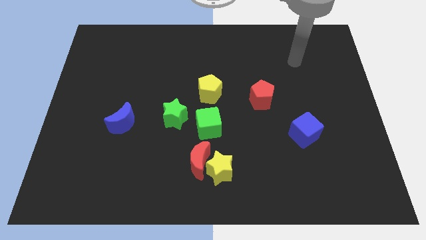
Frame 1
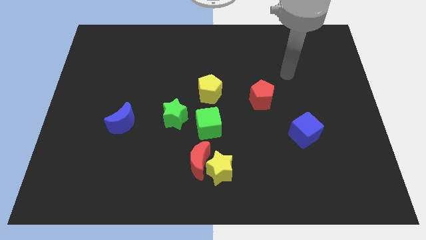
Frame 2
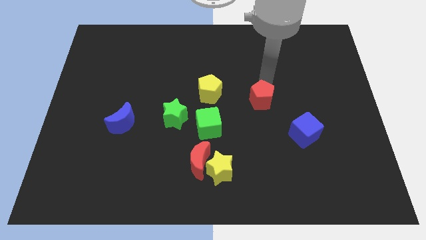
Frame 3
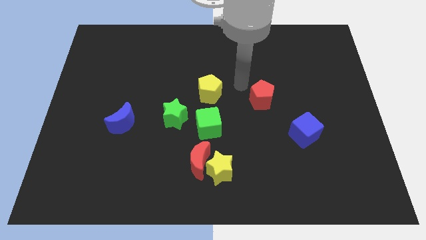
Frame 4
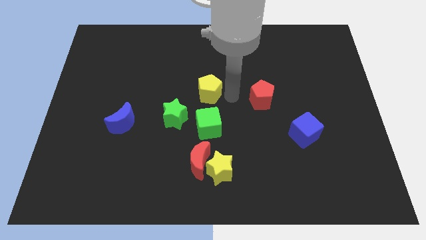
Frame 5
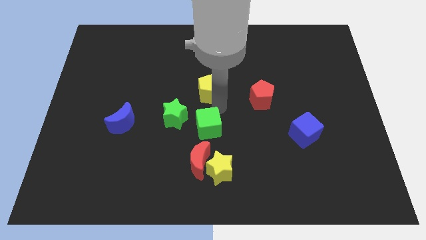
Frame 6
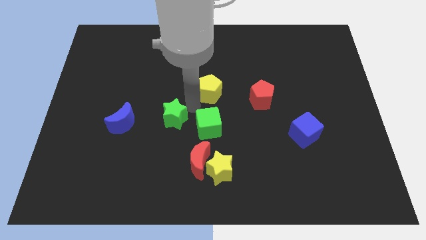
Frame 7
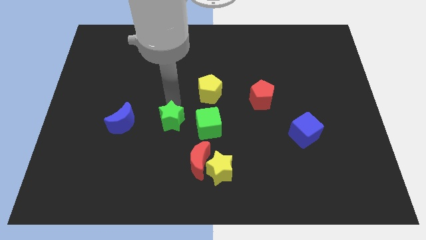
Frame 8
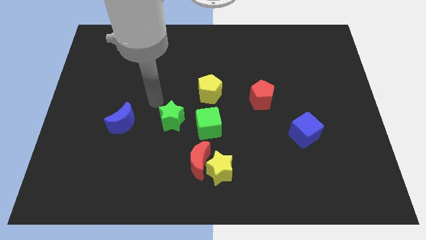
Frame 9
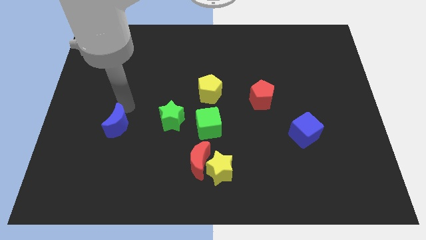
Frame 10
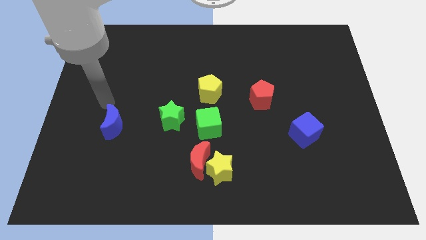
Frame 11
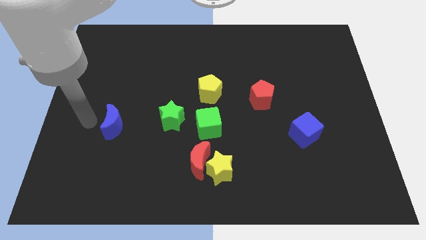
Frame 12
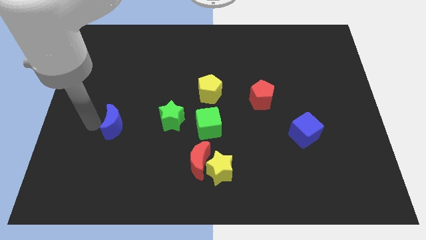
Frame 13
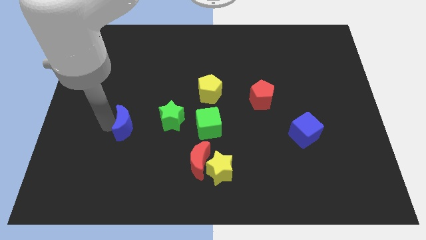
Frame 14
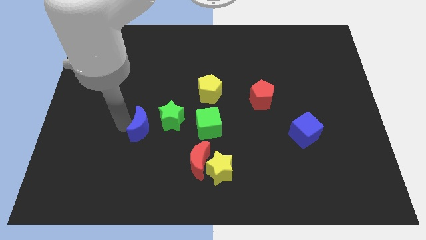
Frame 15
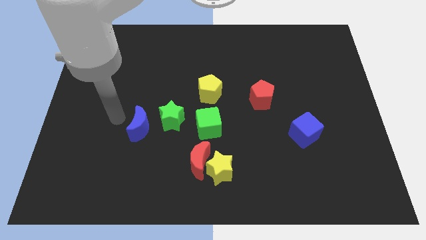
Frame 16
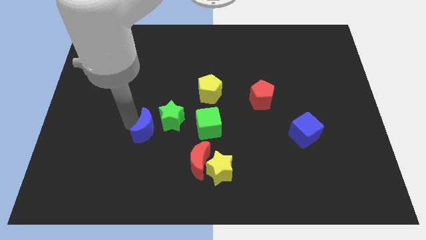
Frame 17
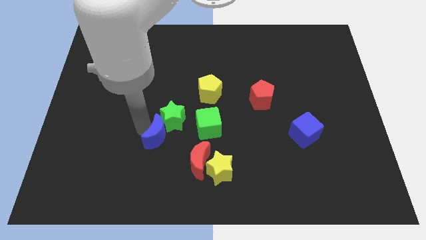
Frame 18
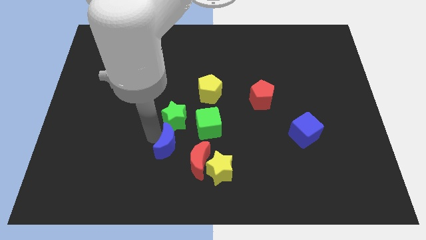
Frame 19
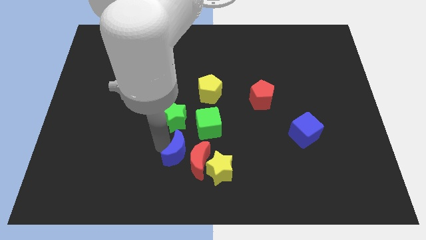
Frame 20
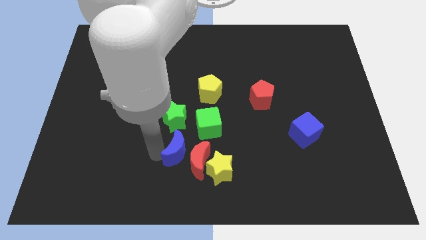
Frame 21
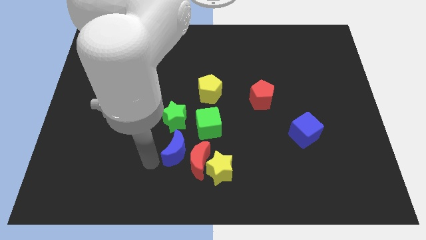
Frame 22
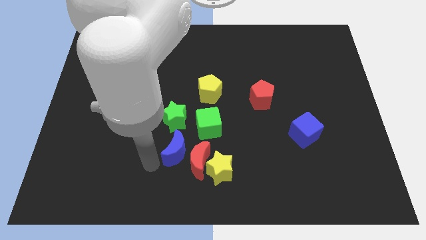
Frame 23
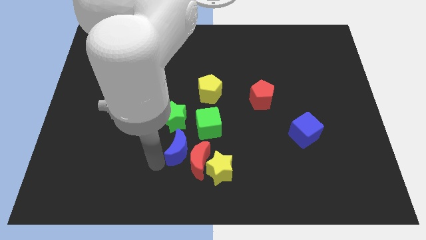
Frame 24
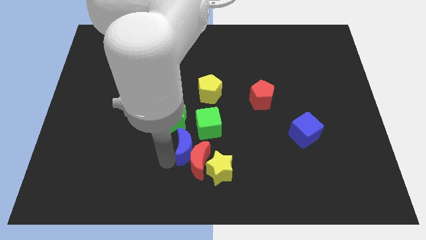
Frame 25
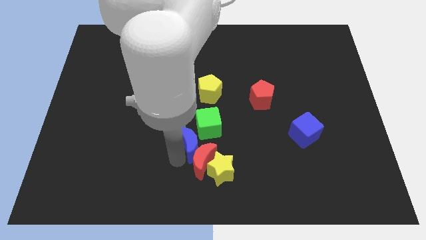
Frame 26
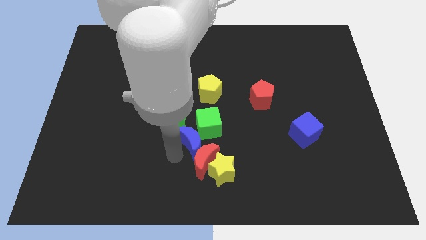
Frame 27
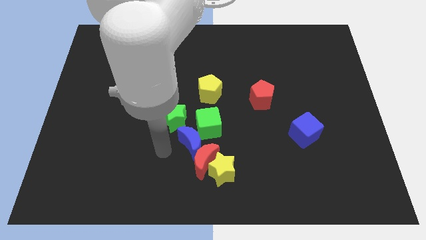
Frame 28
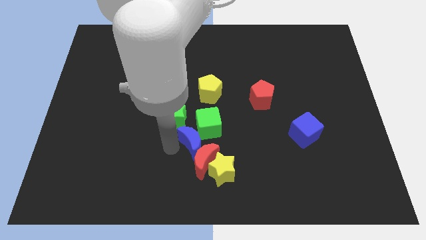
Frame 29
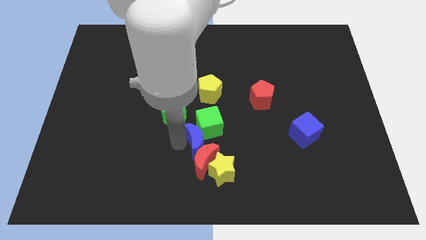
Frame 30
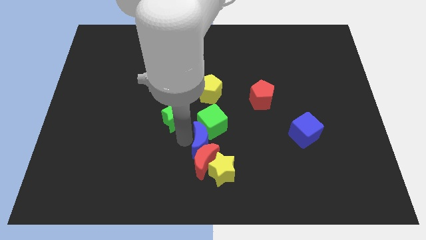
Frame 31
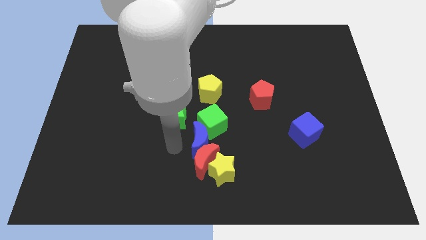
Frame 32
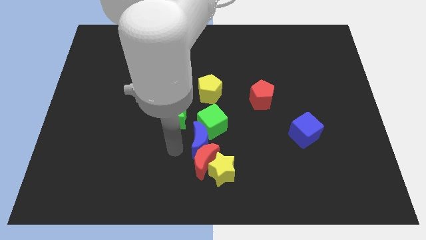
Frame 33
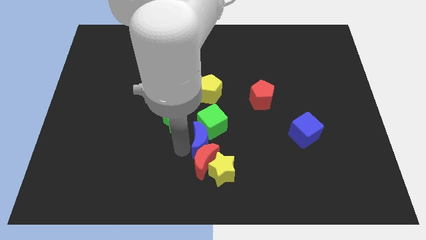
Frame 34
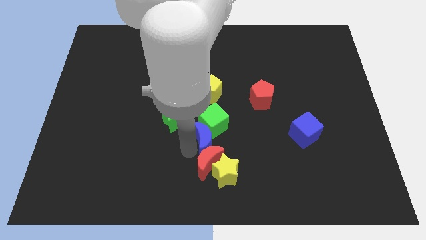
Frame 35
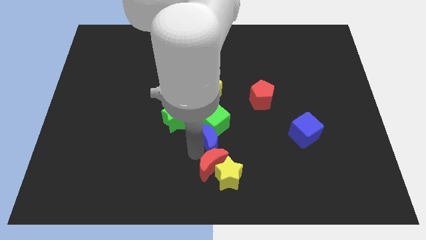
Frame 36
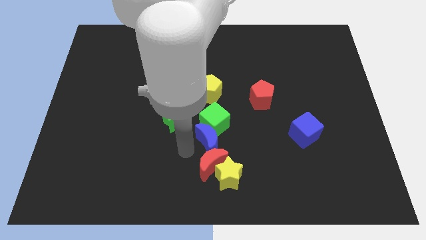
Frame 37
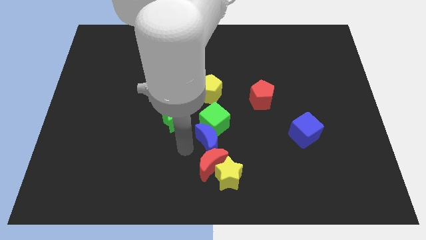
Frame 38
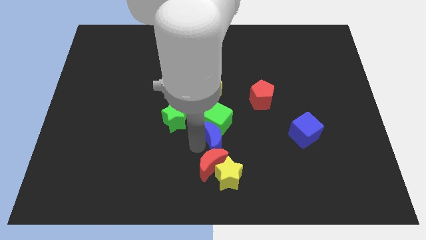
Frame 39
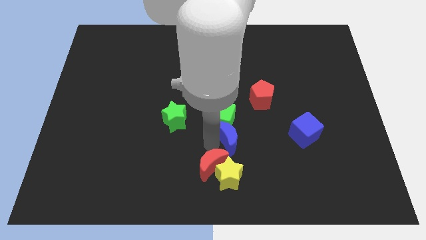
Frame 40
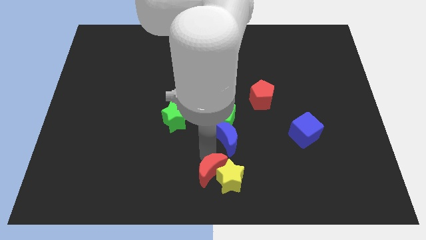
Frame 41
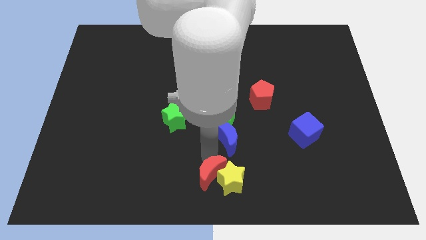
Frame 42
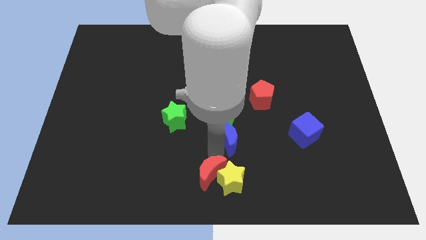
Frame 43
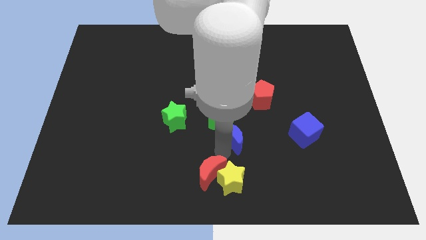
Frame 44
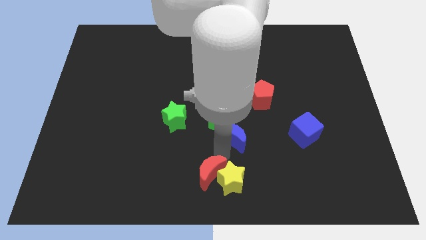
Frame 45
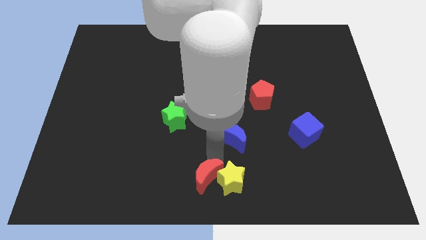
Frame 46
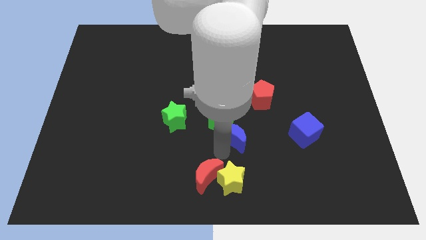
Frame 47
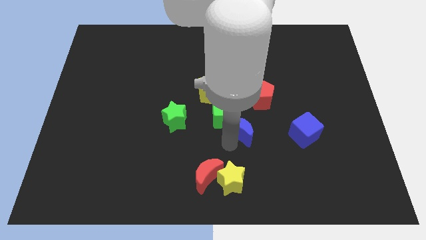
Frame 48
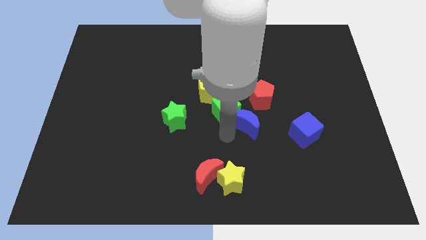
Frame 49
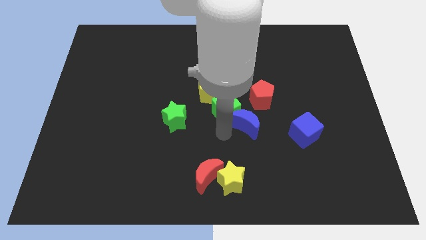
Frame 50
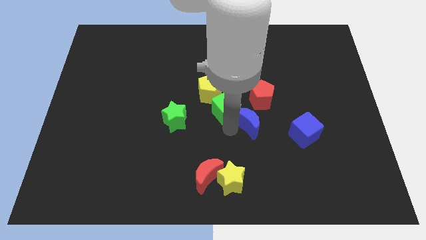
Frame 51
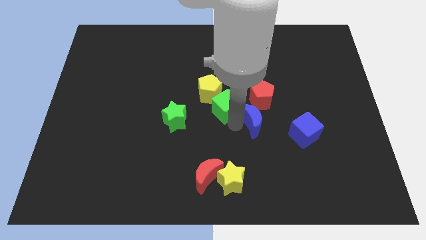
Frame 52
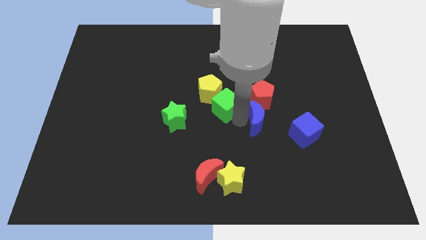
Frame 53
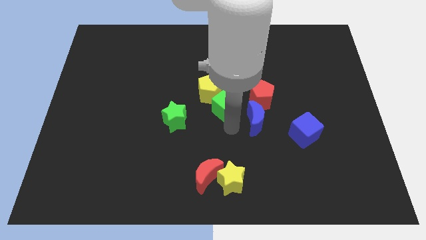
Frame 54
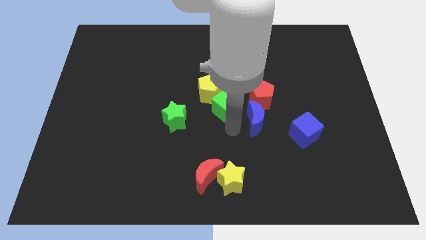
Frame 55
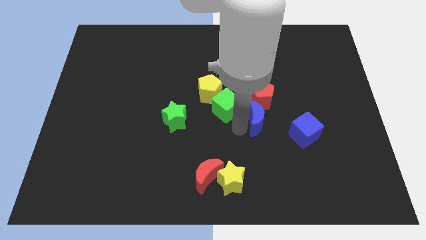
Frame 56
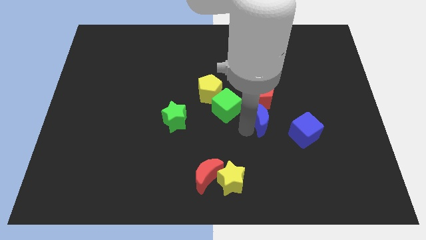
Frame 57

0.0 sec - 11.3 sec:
move the blue moon to the top left of the blue cube

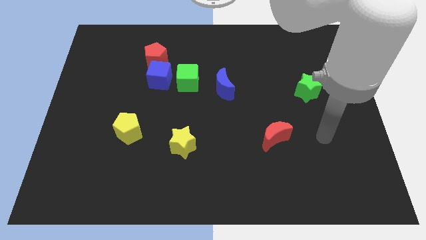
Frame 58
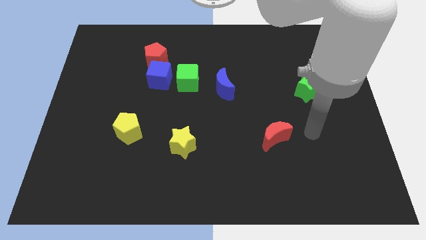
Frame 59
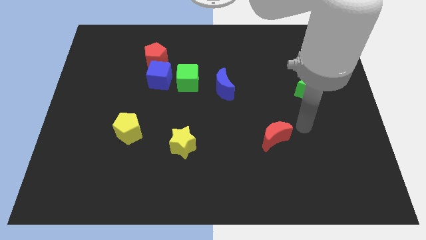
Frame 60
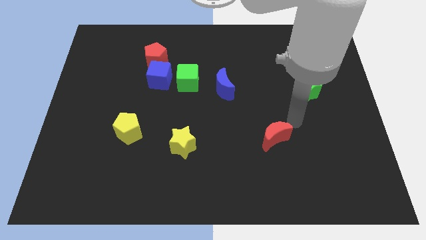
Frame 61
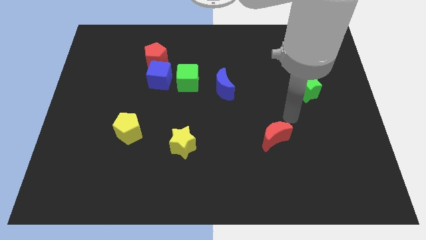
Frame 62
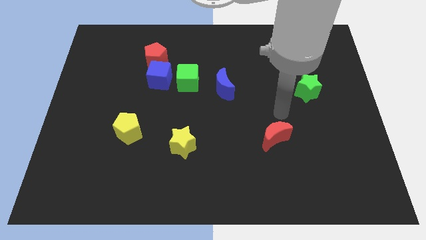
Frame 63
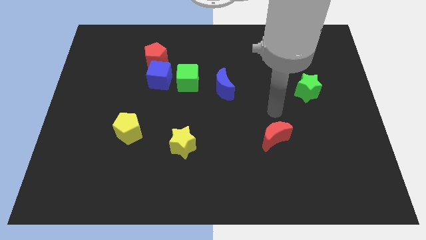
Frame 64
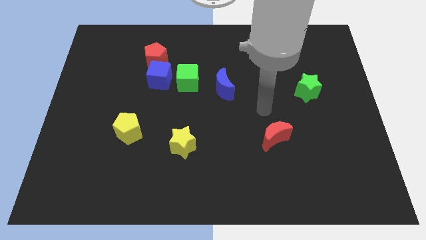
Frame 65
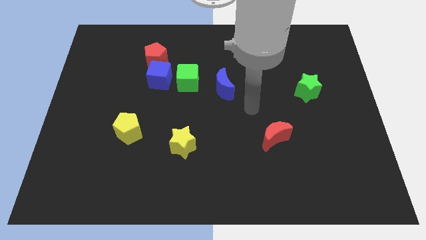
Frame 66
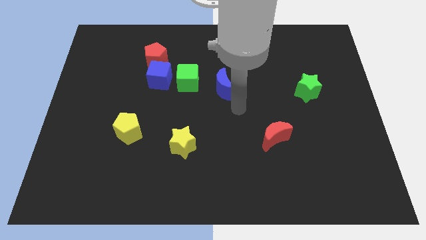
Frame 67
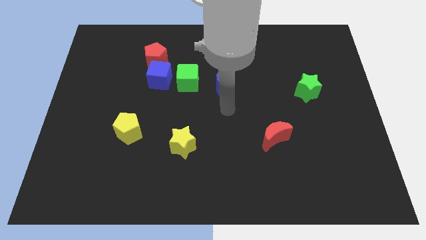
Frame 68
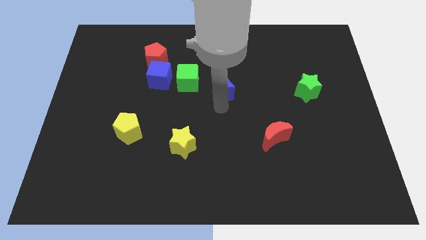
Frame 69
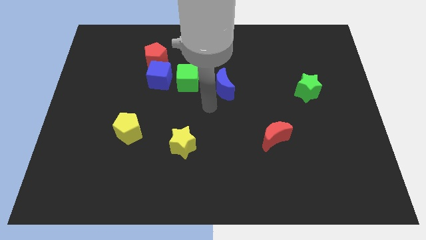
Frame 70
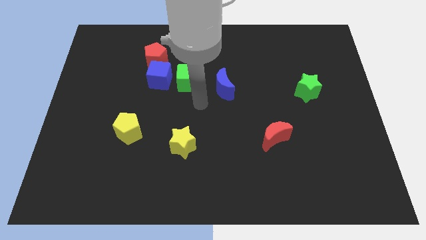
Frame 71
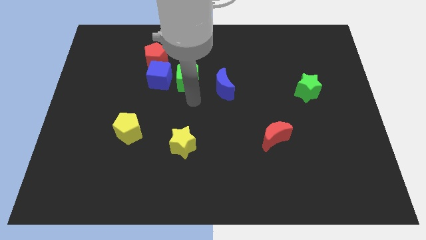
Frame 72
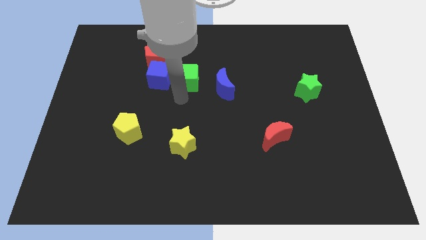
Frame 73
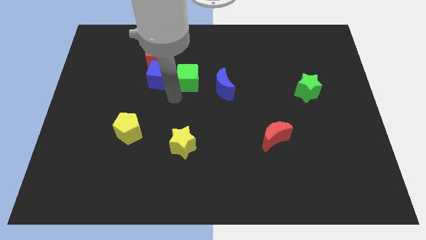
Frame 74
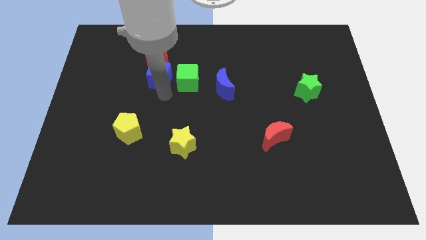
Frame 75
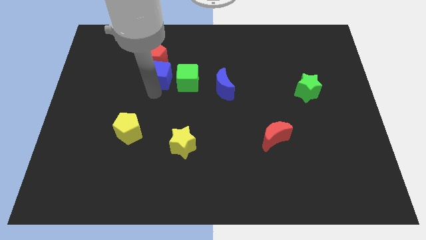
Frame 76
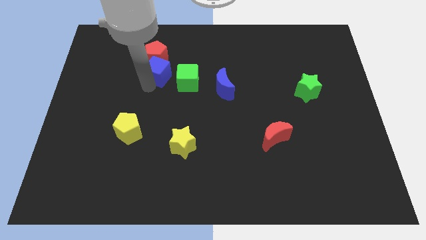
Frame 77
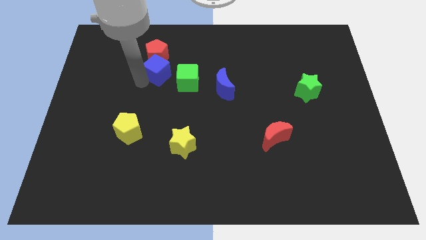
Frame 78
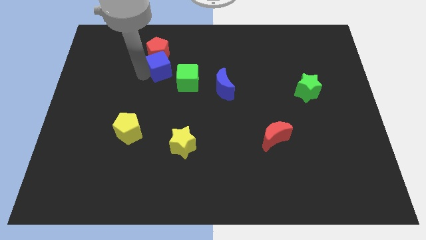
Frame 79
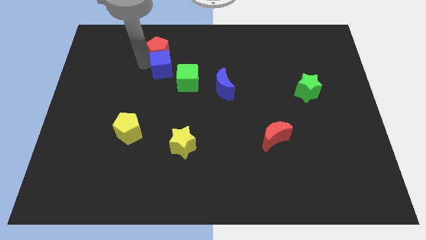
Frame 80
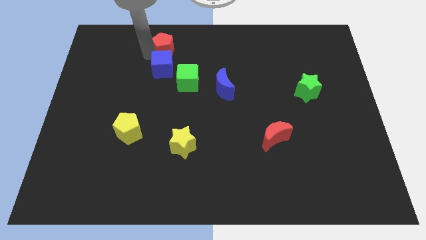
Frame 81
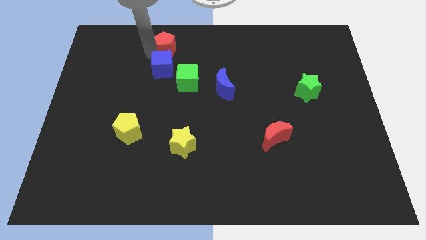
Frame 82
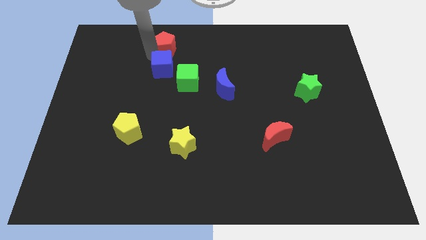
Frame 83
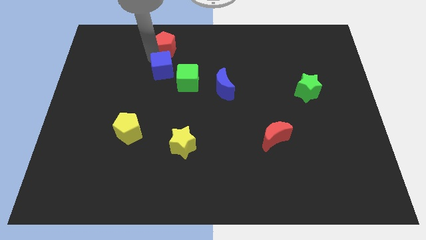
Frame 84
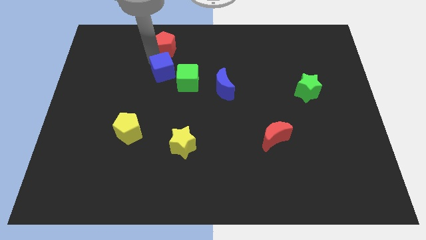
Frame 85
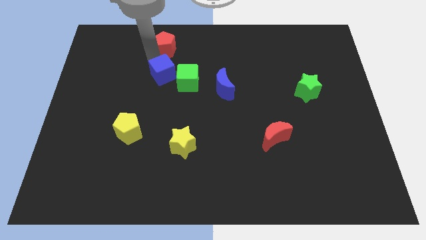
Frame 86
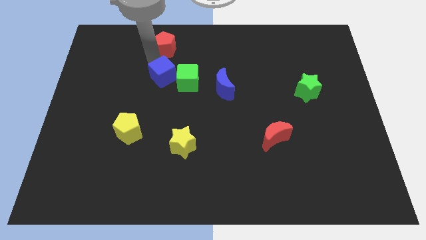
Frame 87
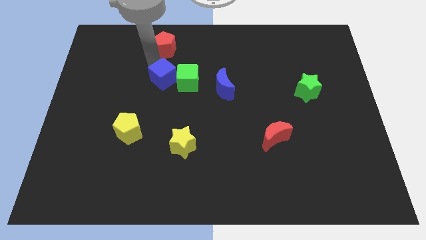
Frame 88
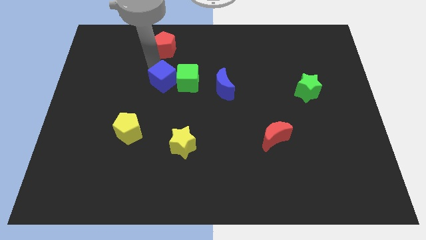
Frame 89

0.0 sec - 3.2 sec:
push the blue cube just left of the blue moon
